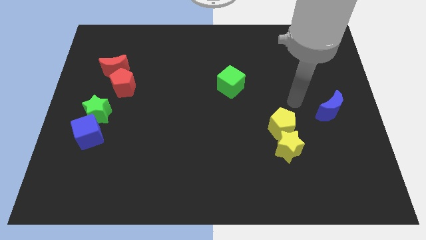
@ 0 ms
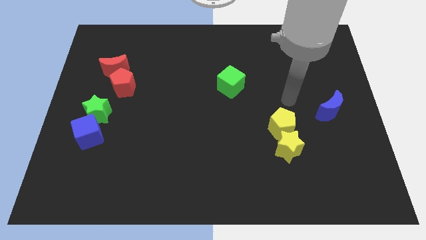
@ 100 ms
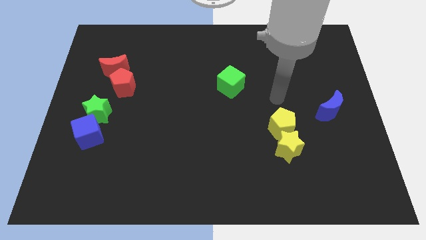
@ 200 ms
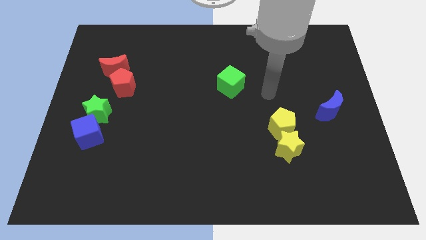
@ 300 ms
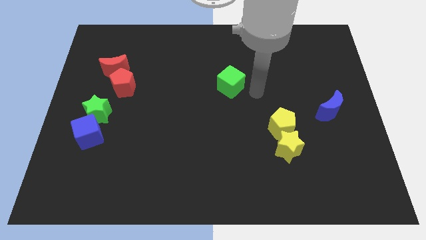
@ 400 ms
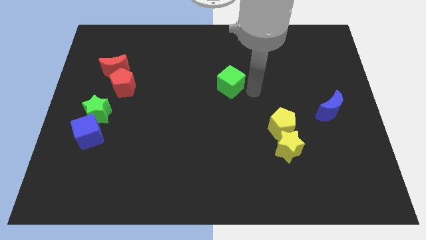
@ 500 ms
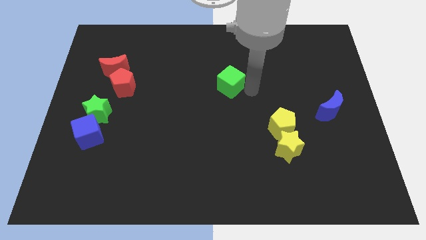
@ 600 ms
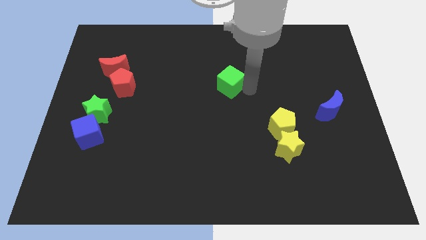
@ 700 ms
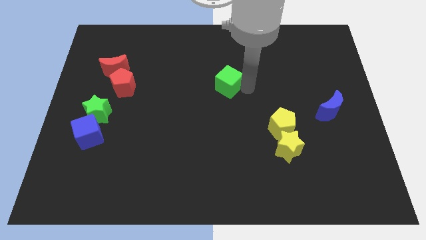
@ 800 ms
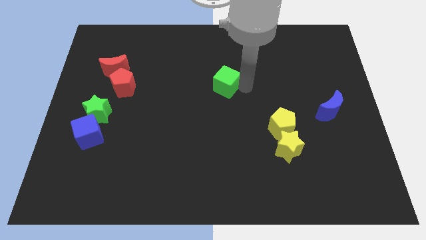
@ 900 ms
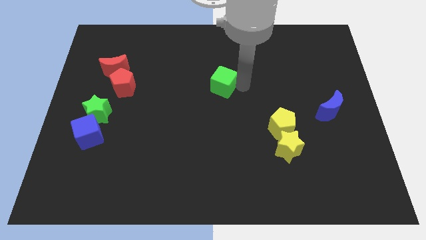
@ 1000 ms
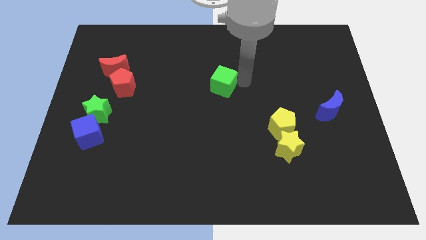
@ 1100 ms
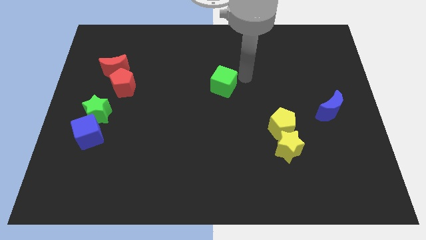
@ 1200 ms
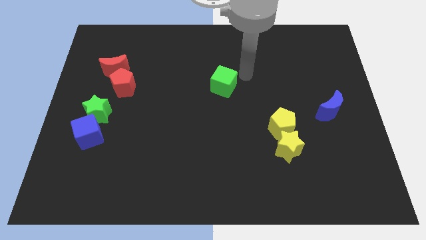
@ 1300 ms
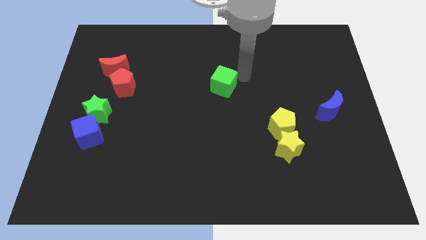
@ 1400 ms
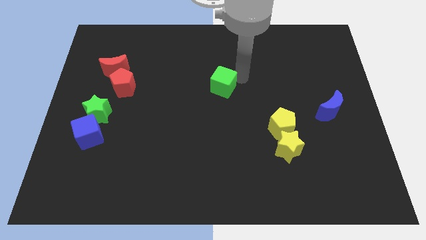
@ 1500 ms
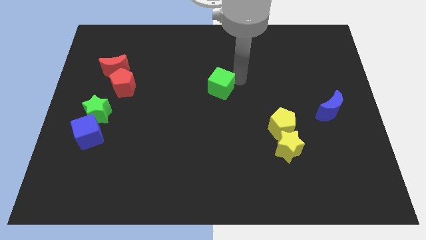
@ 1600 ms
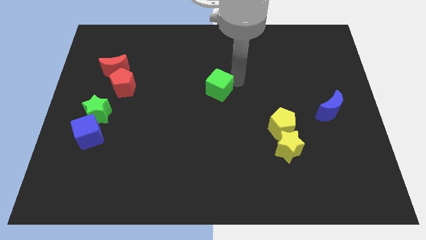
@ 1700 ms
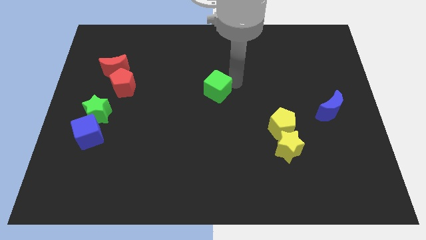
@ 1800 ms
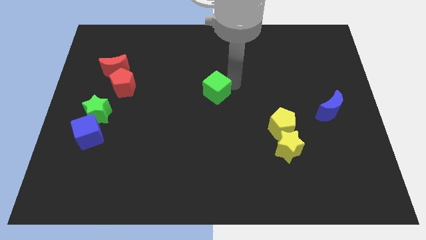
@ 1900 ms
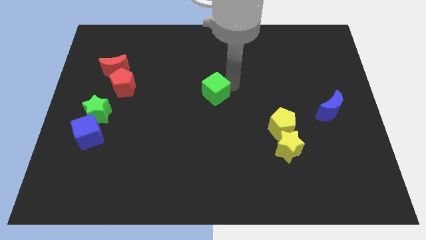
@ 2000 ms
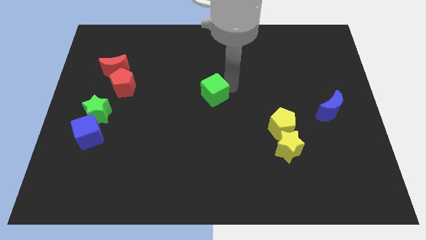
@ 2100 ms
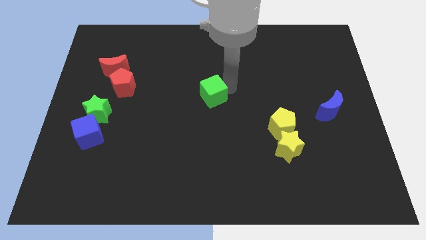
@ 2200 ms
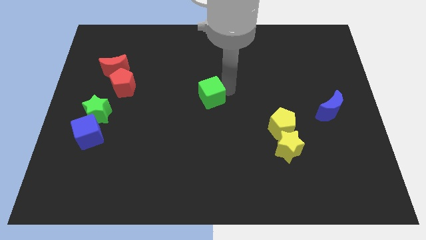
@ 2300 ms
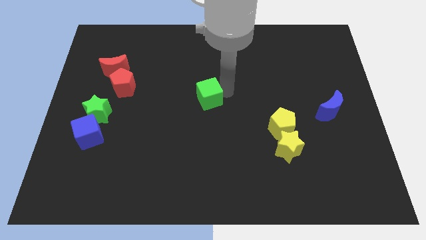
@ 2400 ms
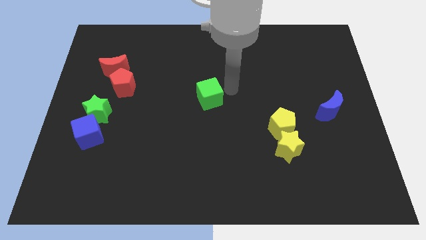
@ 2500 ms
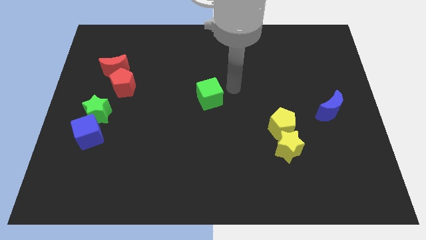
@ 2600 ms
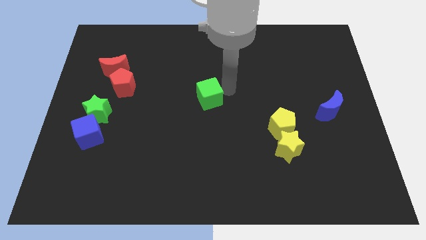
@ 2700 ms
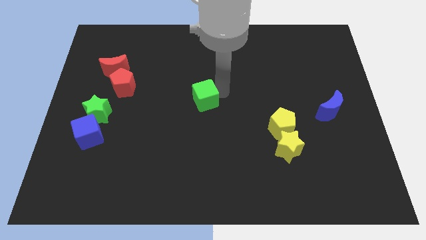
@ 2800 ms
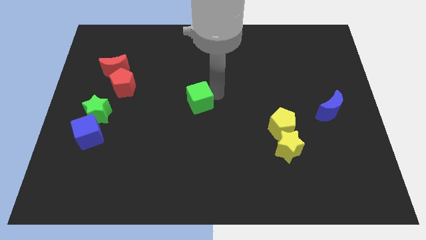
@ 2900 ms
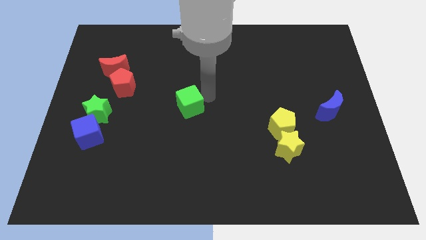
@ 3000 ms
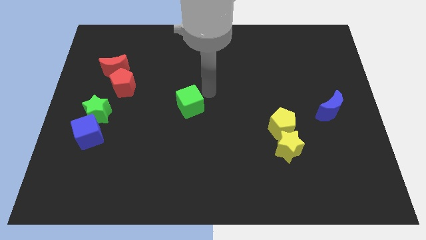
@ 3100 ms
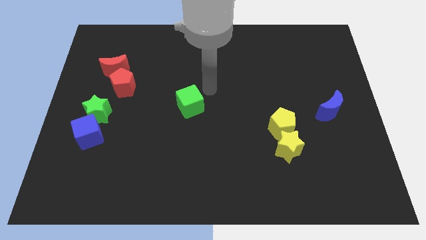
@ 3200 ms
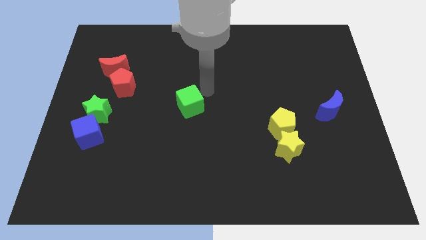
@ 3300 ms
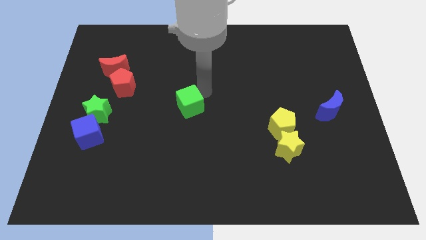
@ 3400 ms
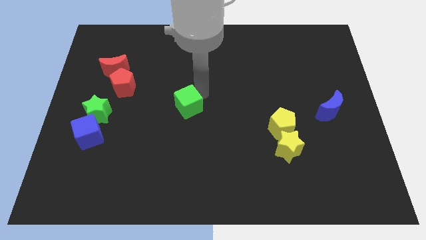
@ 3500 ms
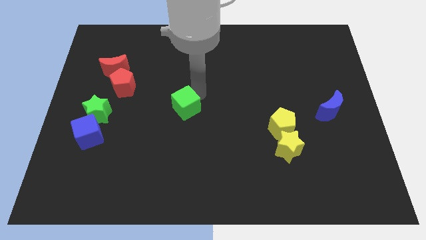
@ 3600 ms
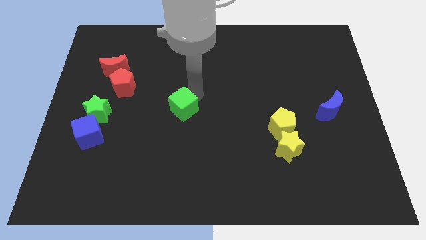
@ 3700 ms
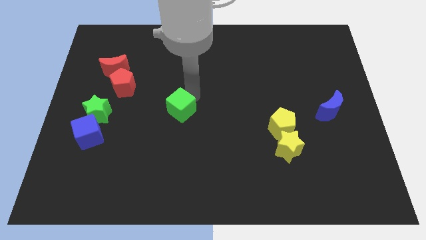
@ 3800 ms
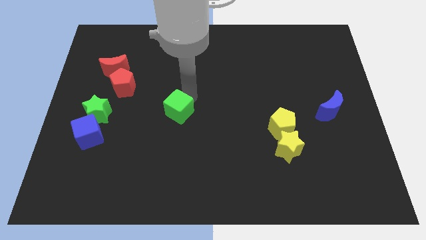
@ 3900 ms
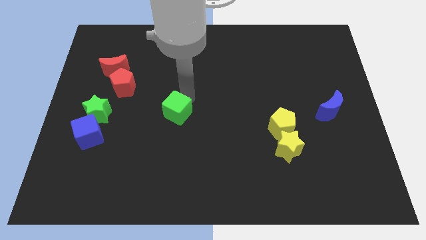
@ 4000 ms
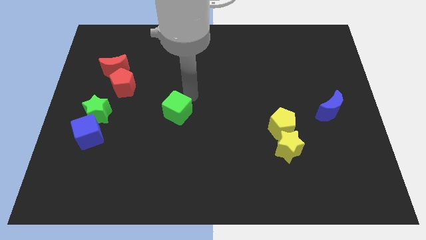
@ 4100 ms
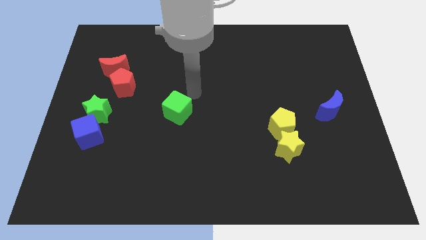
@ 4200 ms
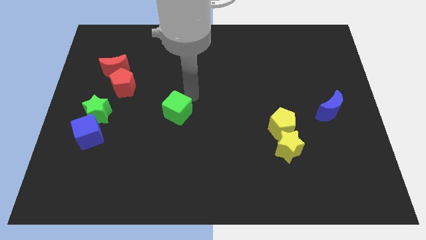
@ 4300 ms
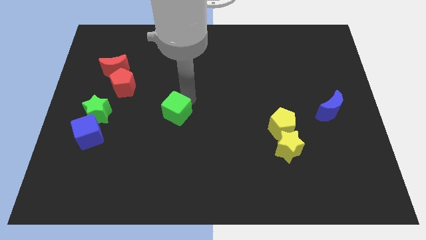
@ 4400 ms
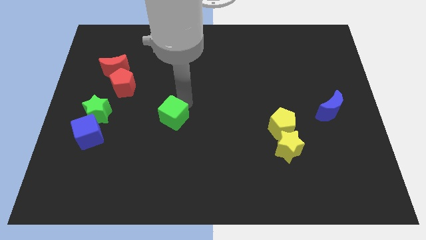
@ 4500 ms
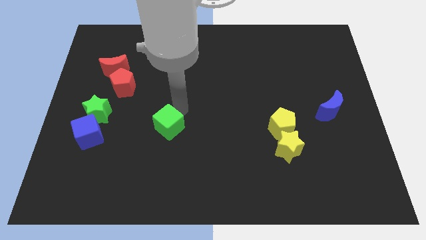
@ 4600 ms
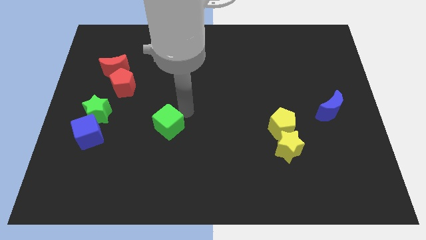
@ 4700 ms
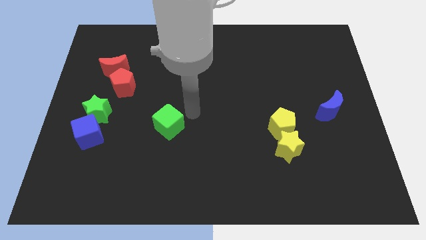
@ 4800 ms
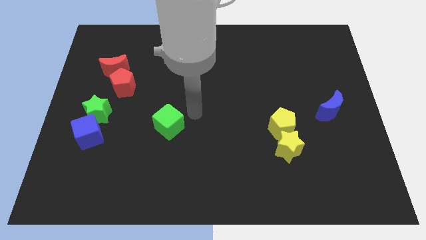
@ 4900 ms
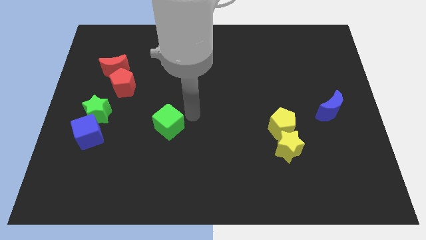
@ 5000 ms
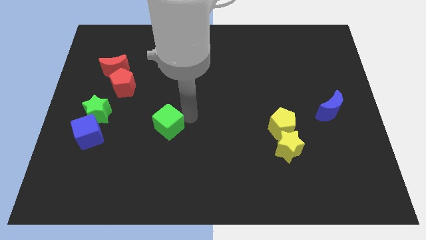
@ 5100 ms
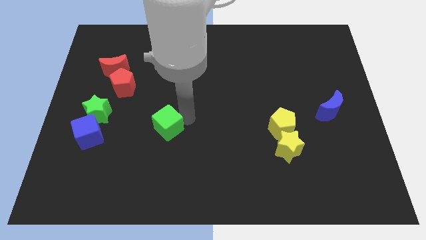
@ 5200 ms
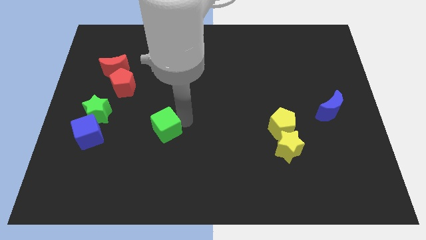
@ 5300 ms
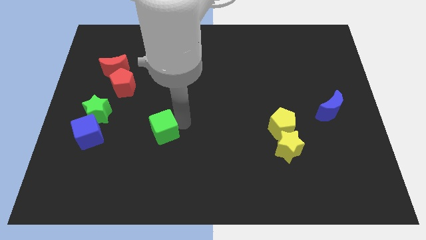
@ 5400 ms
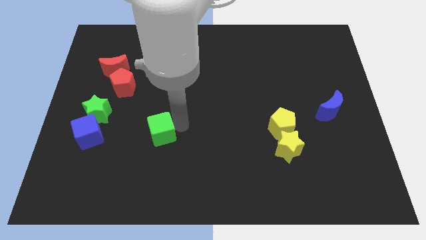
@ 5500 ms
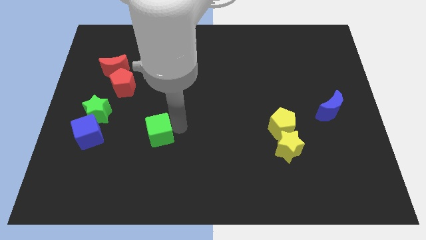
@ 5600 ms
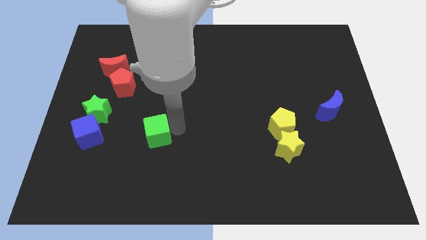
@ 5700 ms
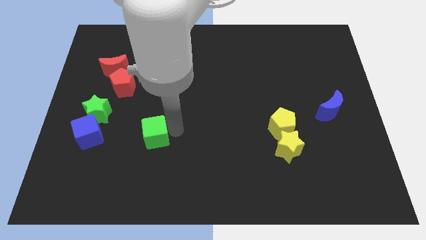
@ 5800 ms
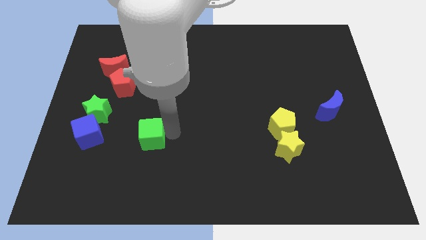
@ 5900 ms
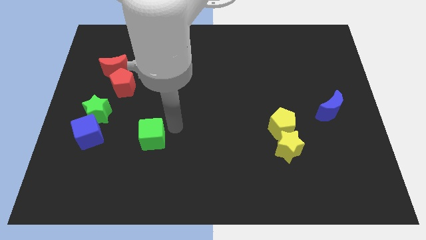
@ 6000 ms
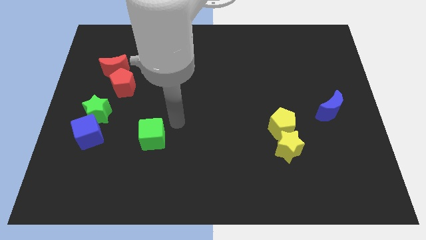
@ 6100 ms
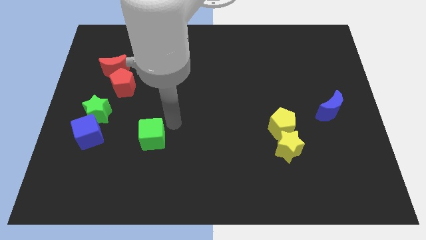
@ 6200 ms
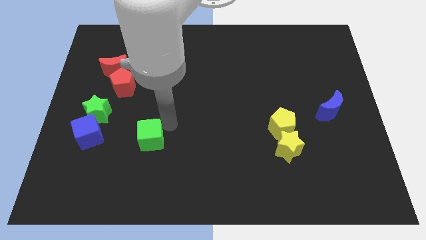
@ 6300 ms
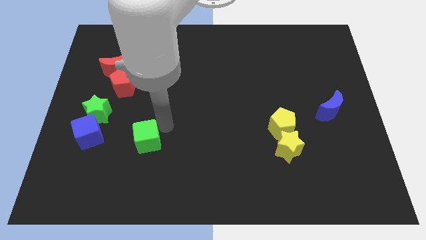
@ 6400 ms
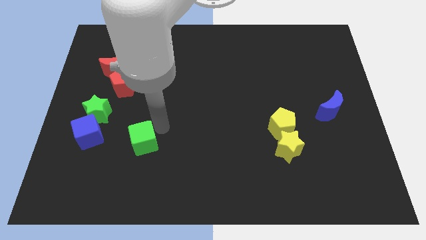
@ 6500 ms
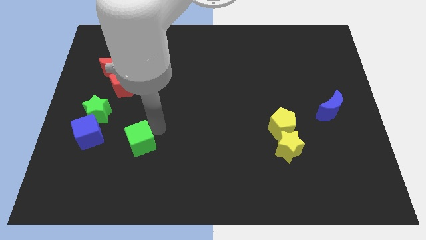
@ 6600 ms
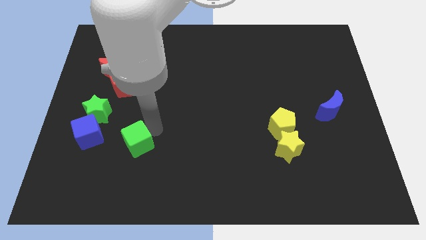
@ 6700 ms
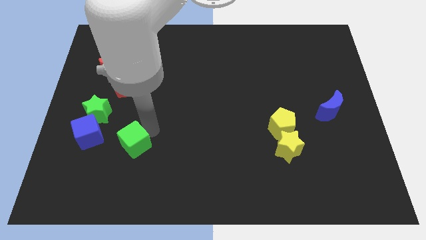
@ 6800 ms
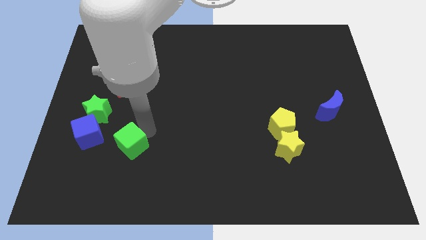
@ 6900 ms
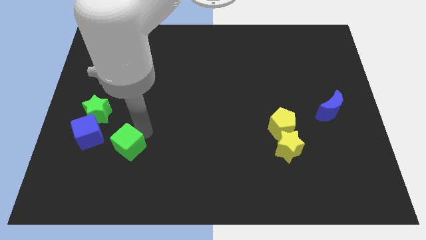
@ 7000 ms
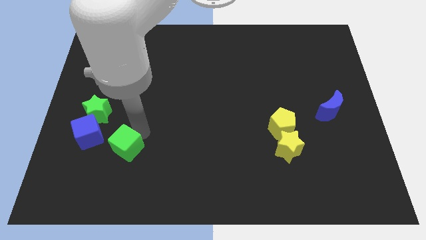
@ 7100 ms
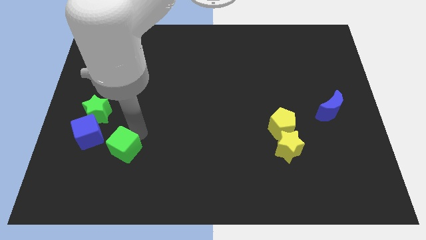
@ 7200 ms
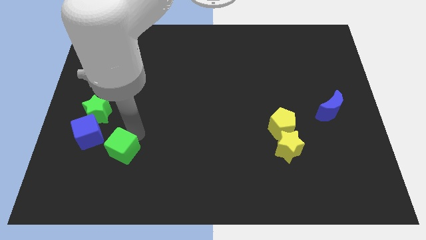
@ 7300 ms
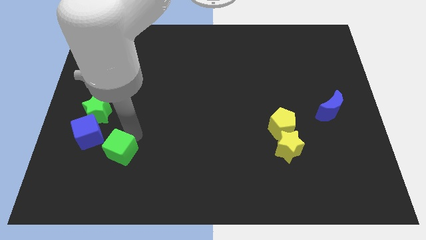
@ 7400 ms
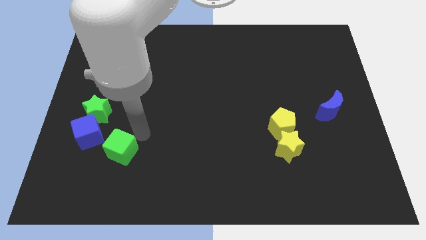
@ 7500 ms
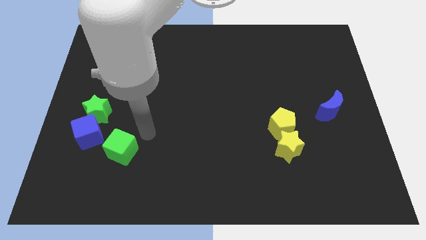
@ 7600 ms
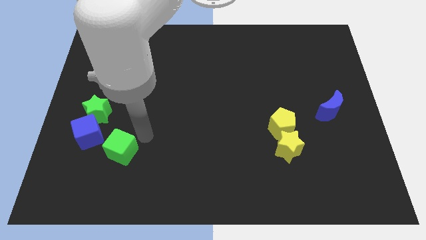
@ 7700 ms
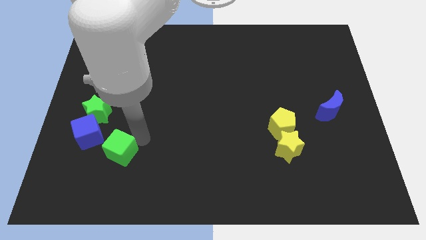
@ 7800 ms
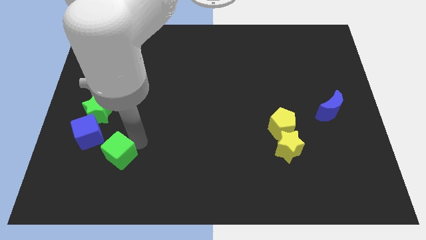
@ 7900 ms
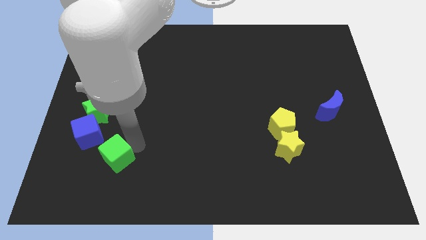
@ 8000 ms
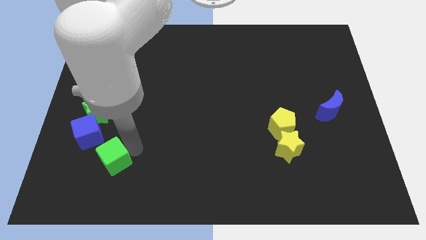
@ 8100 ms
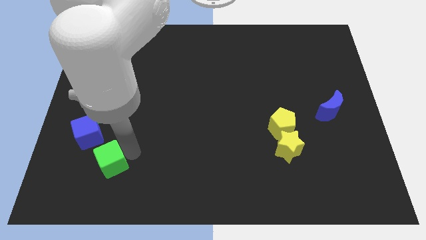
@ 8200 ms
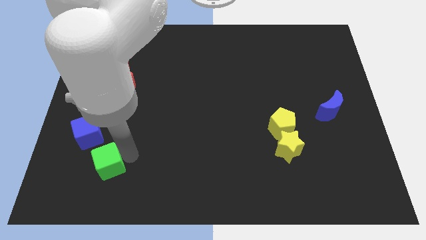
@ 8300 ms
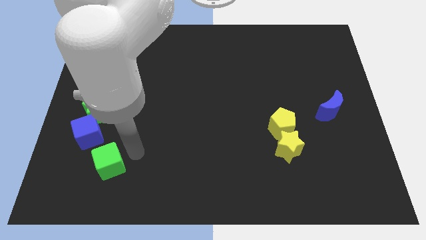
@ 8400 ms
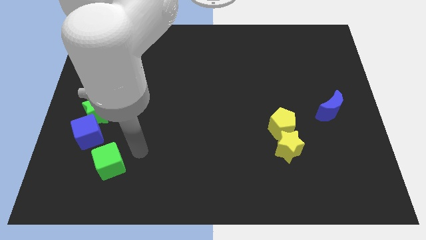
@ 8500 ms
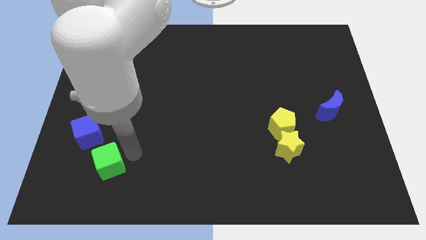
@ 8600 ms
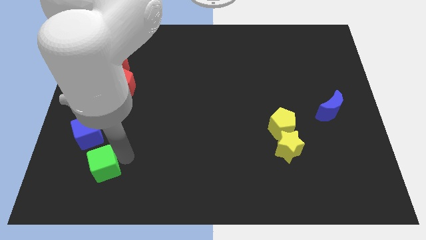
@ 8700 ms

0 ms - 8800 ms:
put the green cube below the blue cube
